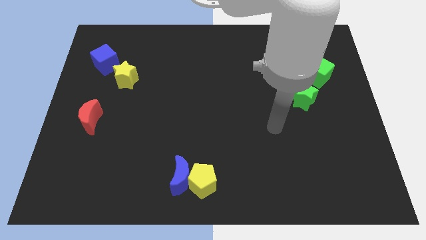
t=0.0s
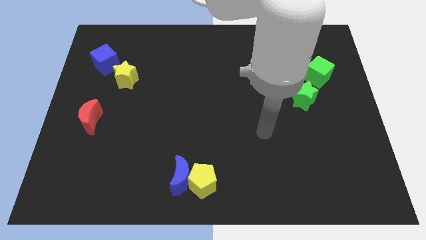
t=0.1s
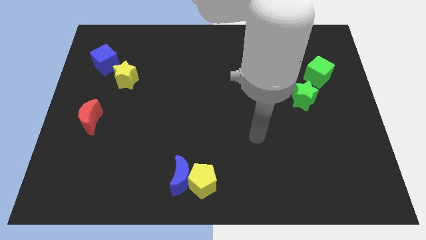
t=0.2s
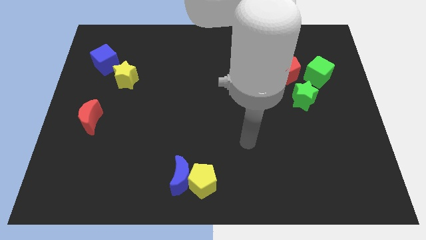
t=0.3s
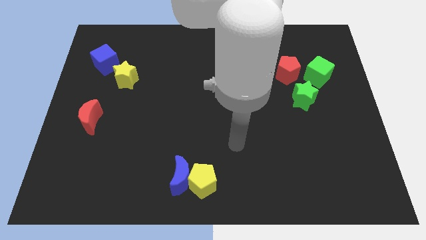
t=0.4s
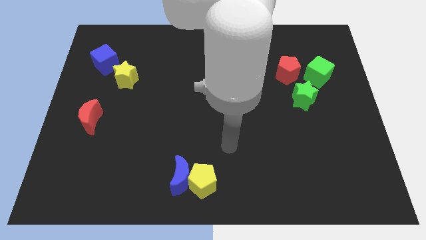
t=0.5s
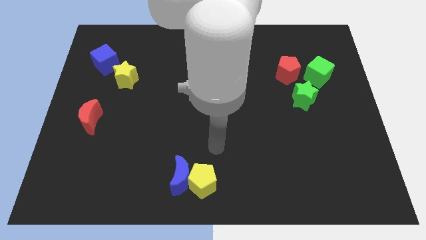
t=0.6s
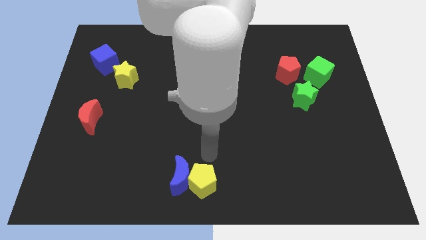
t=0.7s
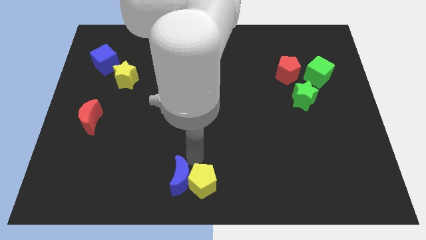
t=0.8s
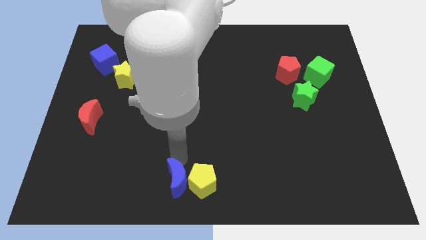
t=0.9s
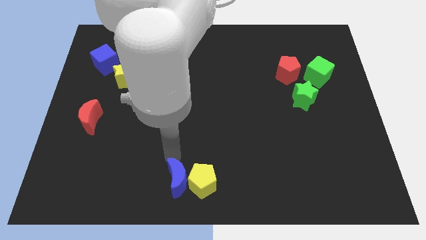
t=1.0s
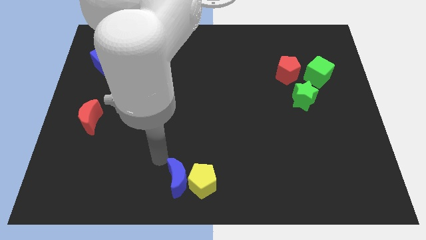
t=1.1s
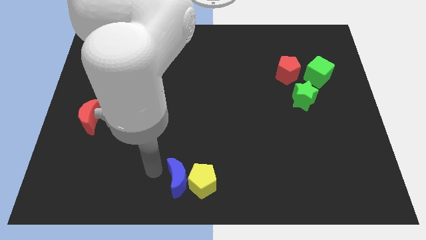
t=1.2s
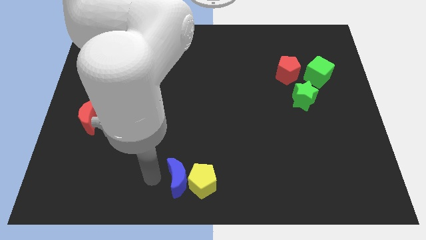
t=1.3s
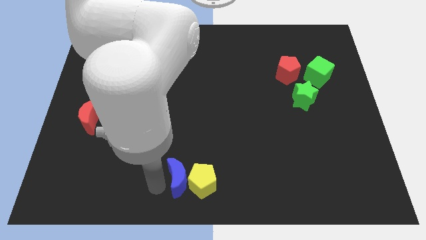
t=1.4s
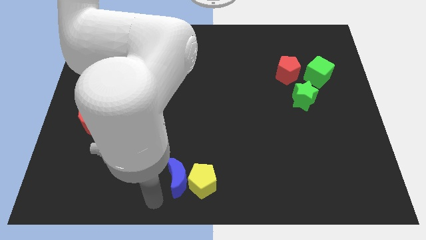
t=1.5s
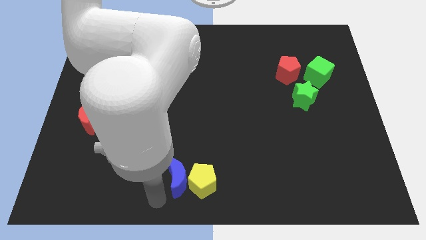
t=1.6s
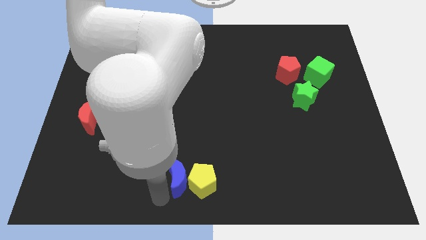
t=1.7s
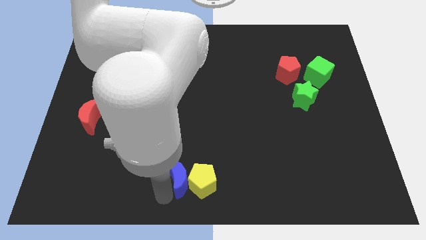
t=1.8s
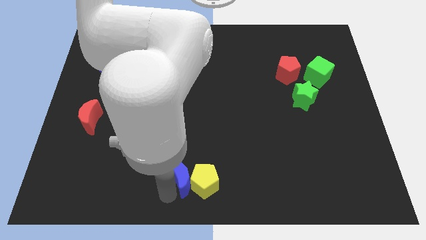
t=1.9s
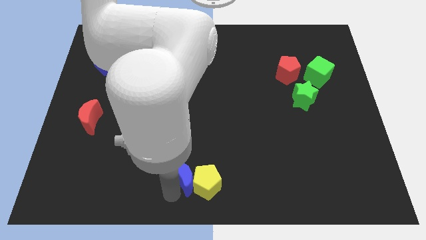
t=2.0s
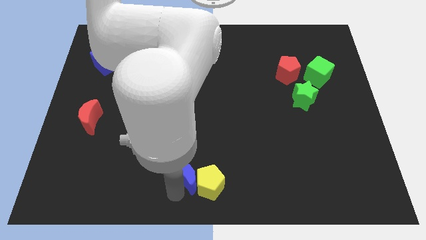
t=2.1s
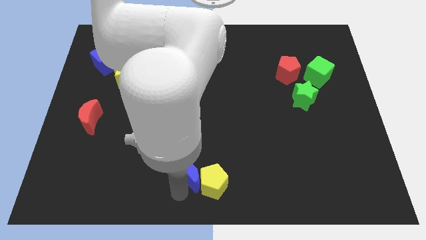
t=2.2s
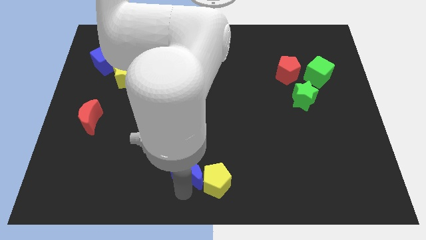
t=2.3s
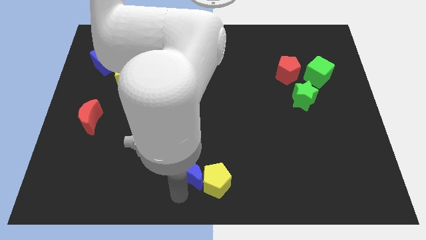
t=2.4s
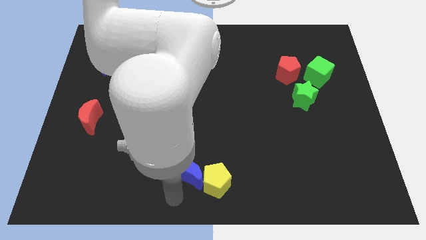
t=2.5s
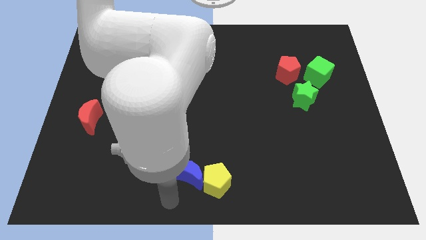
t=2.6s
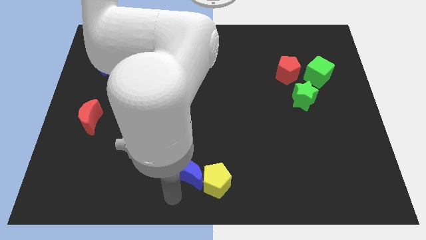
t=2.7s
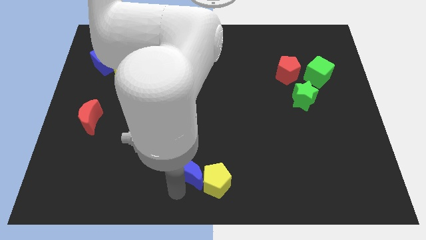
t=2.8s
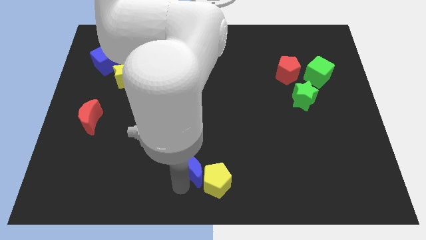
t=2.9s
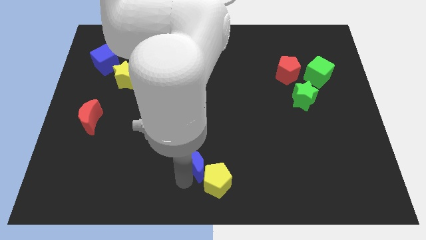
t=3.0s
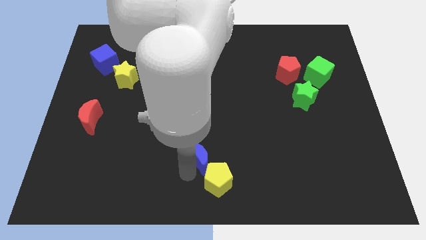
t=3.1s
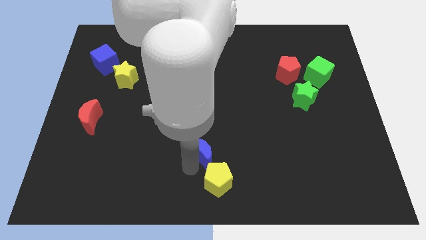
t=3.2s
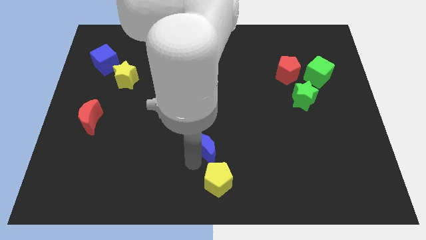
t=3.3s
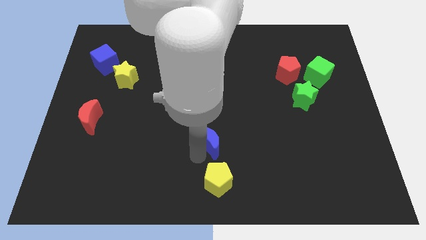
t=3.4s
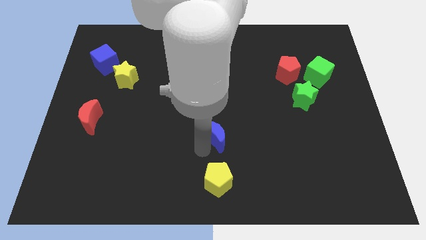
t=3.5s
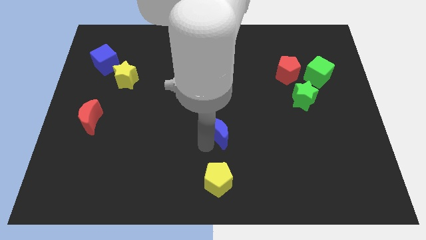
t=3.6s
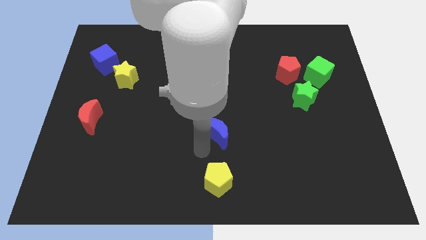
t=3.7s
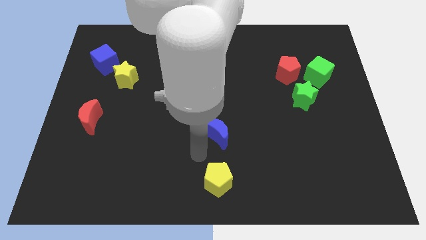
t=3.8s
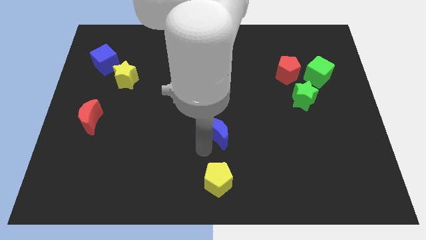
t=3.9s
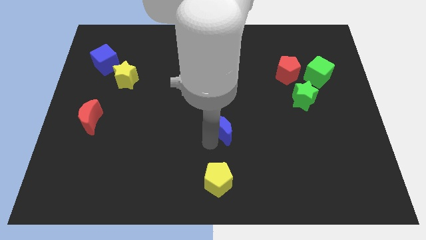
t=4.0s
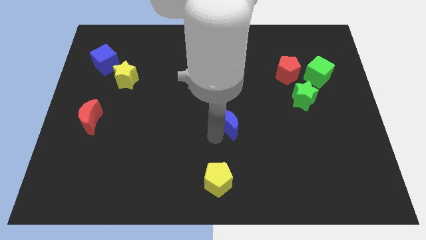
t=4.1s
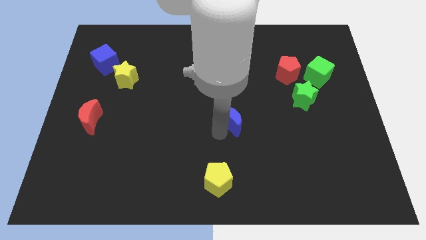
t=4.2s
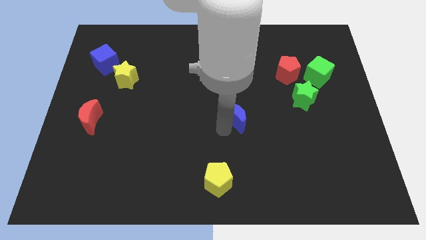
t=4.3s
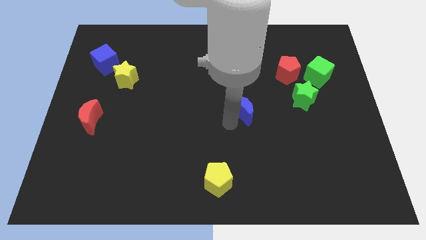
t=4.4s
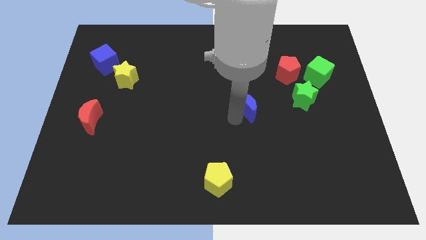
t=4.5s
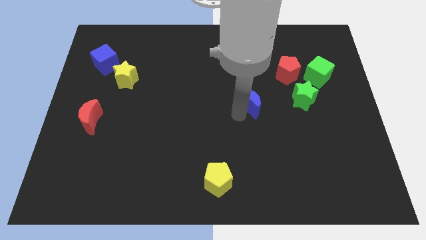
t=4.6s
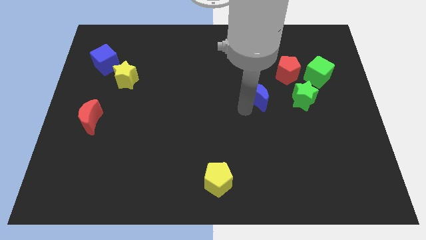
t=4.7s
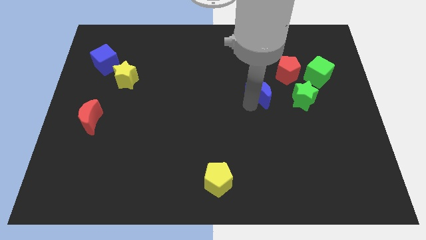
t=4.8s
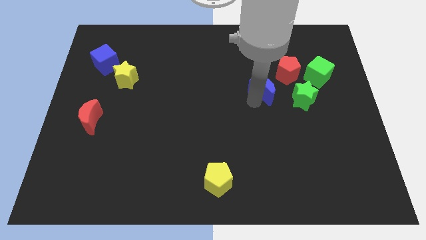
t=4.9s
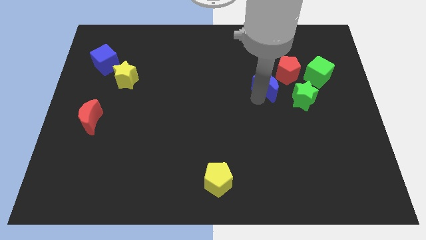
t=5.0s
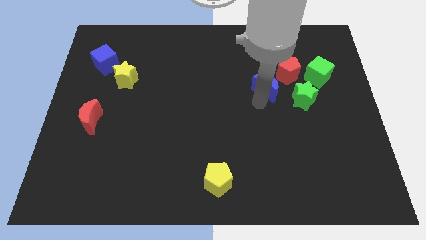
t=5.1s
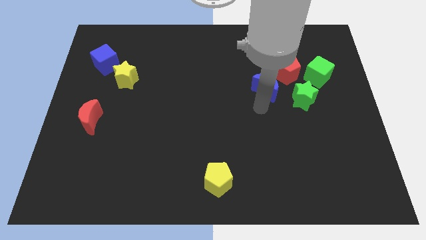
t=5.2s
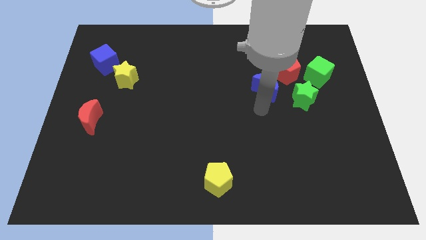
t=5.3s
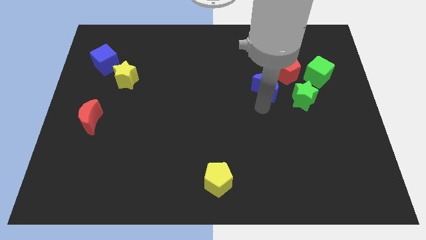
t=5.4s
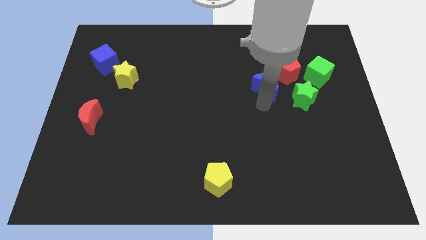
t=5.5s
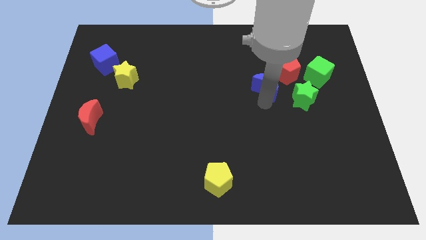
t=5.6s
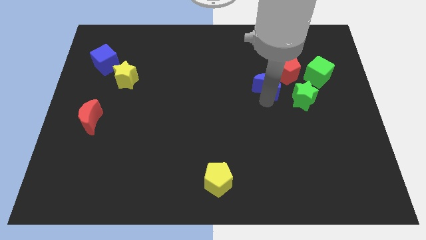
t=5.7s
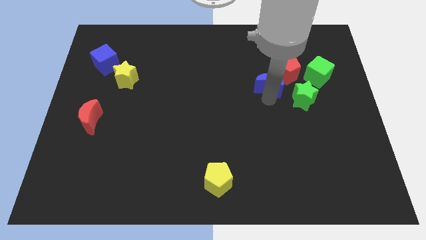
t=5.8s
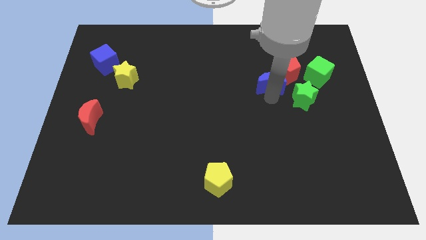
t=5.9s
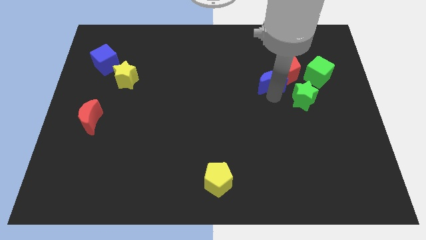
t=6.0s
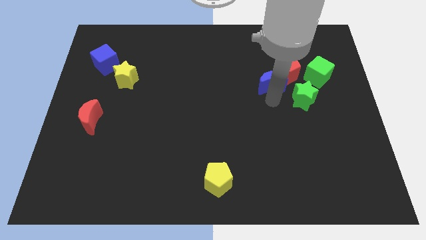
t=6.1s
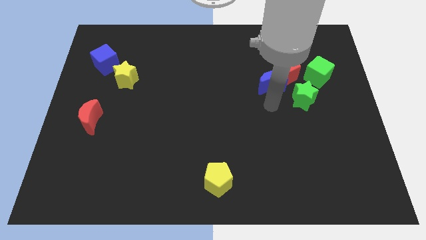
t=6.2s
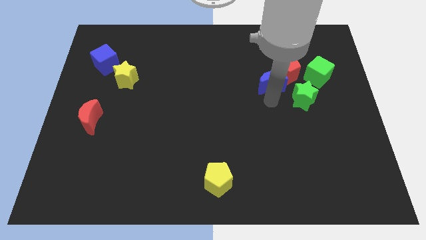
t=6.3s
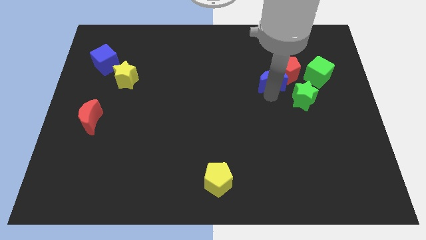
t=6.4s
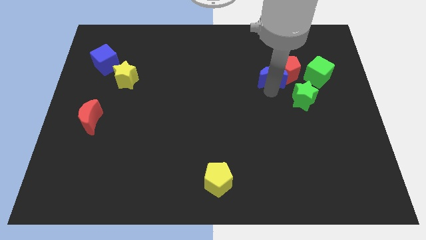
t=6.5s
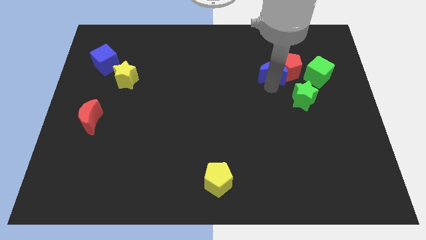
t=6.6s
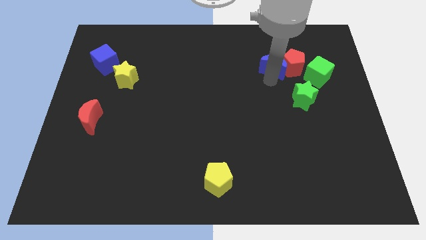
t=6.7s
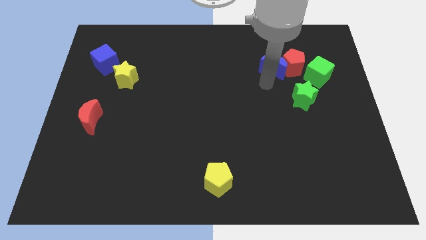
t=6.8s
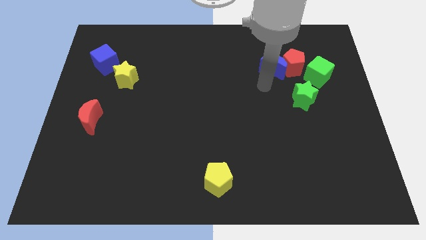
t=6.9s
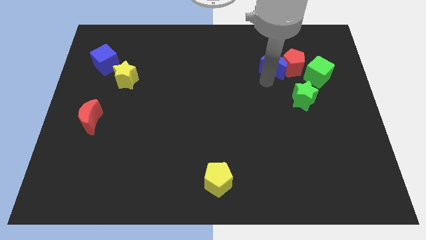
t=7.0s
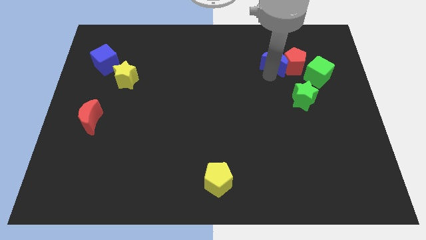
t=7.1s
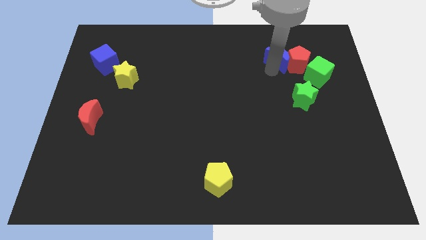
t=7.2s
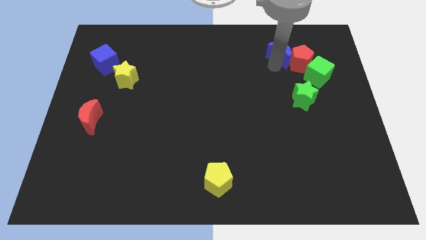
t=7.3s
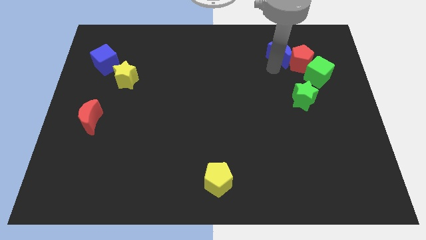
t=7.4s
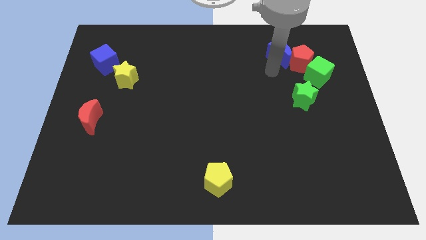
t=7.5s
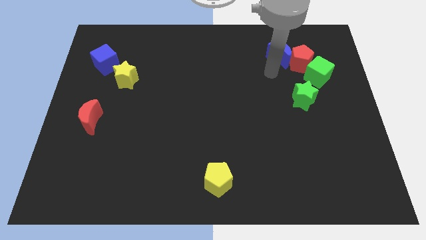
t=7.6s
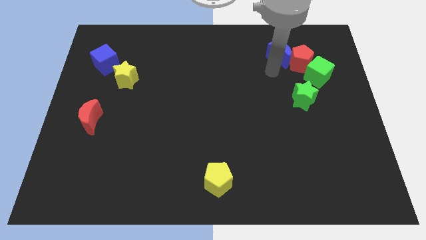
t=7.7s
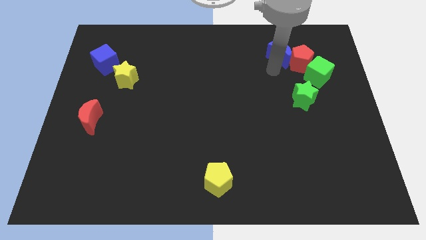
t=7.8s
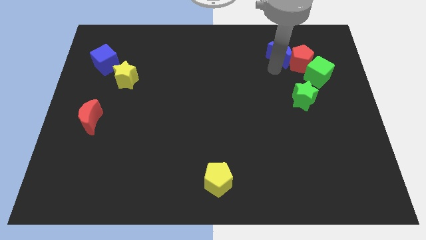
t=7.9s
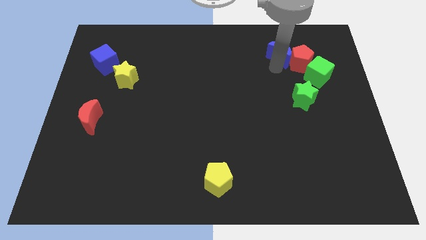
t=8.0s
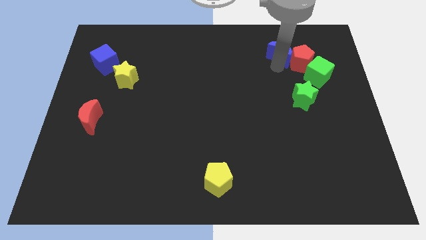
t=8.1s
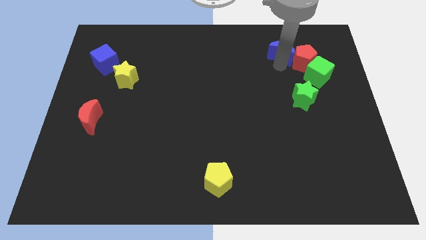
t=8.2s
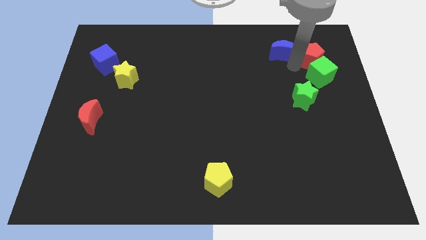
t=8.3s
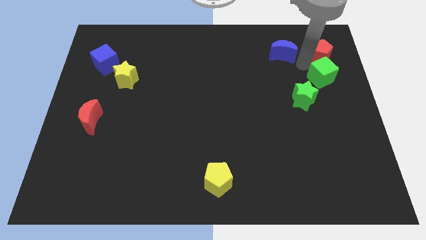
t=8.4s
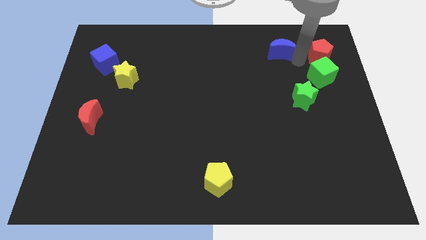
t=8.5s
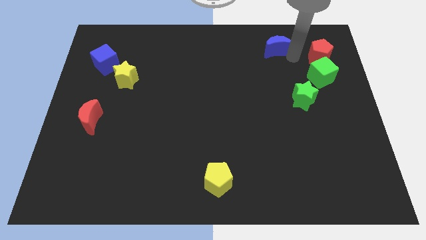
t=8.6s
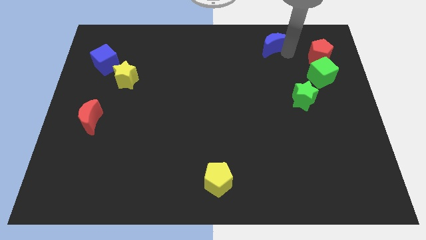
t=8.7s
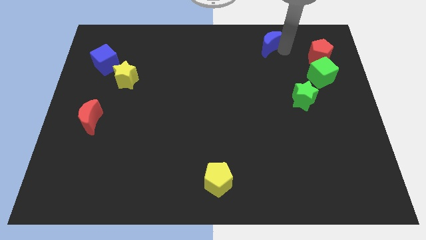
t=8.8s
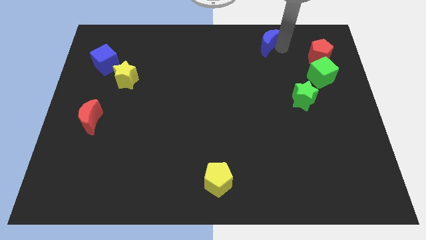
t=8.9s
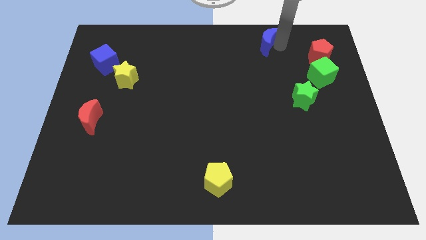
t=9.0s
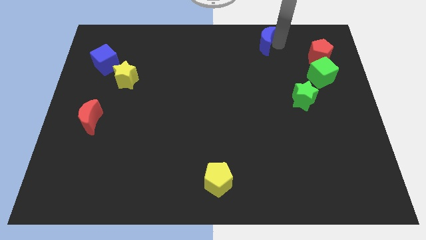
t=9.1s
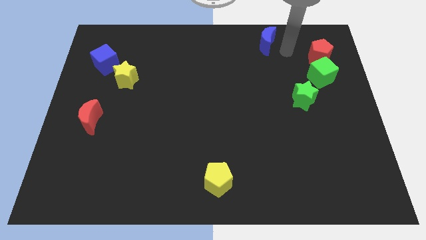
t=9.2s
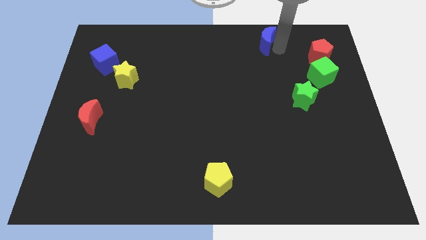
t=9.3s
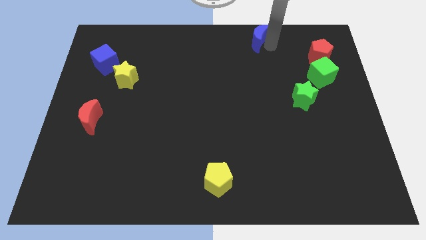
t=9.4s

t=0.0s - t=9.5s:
put the blue moon to the top
